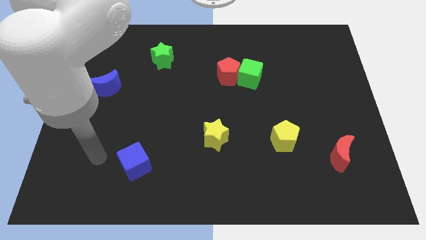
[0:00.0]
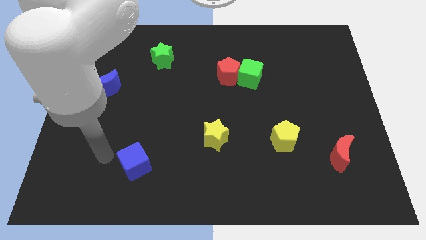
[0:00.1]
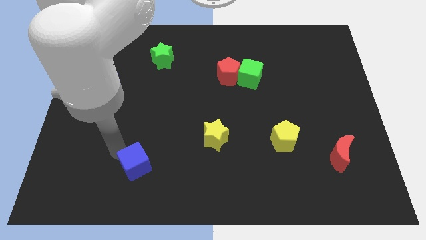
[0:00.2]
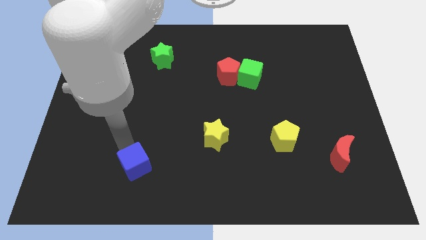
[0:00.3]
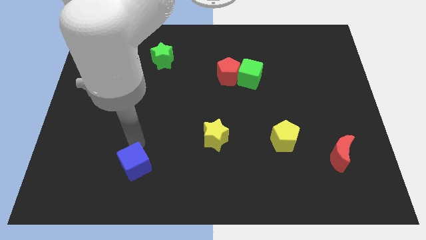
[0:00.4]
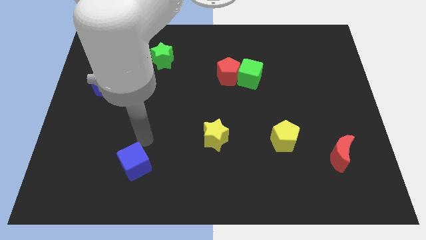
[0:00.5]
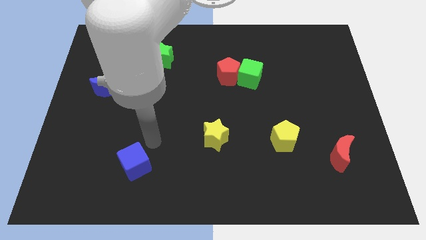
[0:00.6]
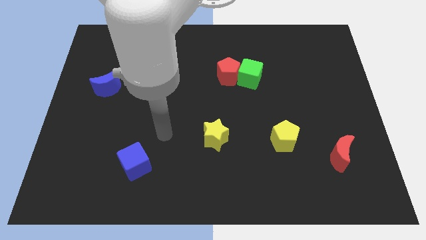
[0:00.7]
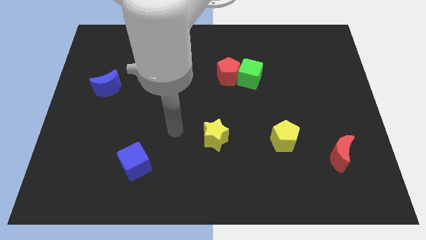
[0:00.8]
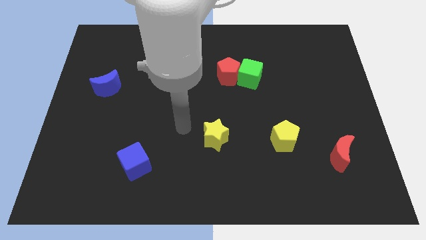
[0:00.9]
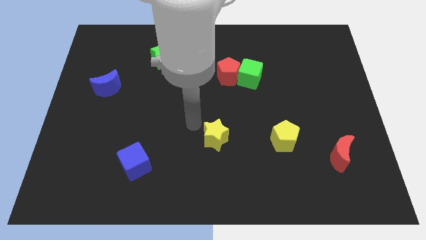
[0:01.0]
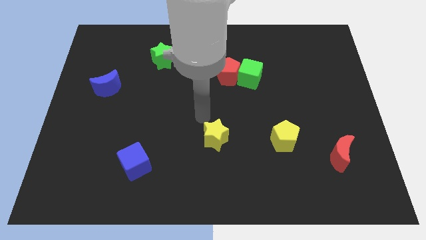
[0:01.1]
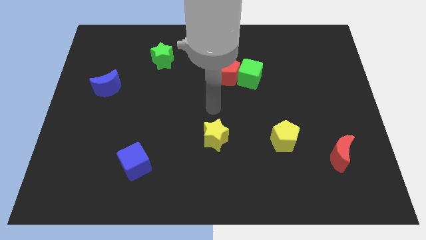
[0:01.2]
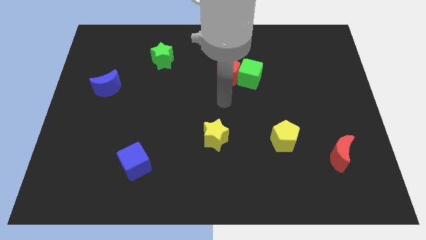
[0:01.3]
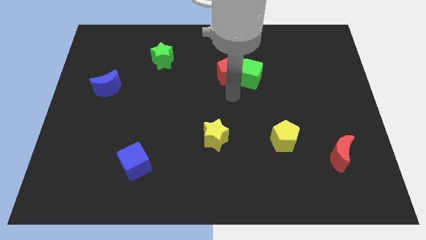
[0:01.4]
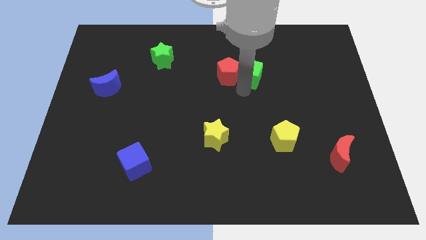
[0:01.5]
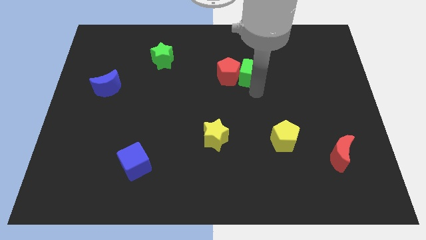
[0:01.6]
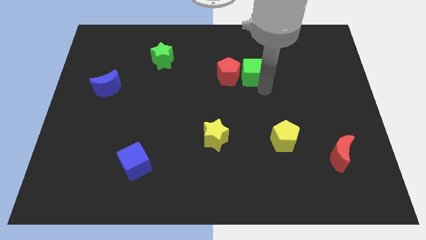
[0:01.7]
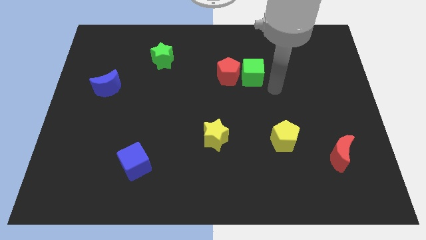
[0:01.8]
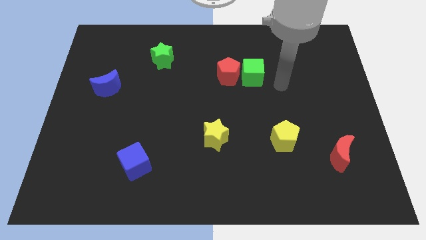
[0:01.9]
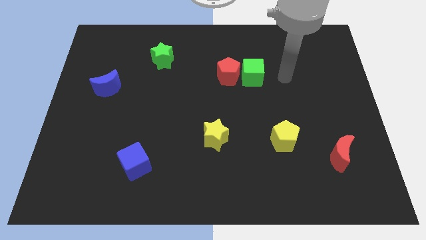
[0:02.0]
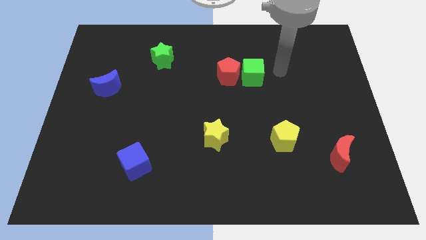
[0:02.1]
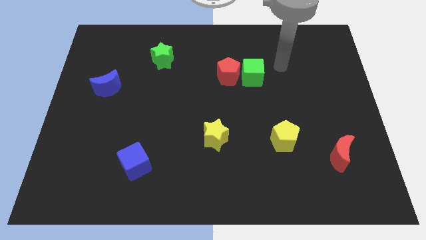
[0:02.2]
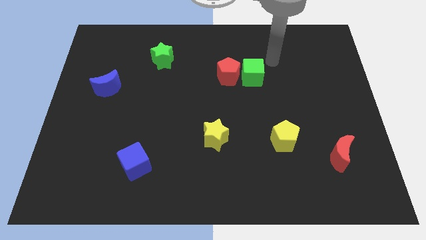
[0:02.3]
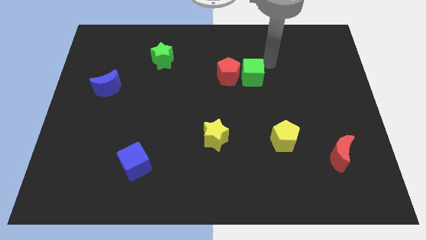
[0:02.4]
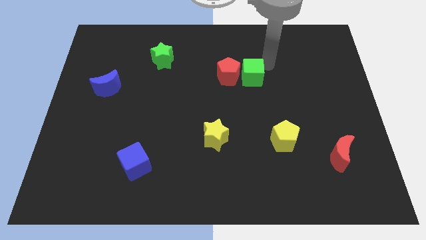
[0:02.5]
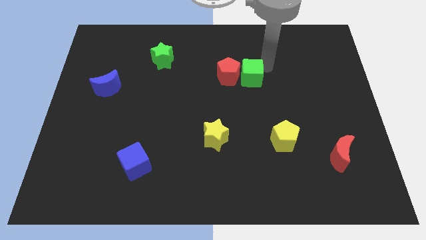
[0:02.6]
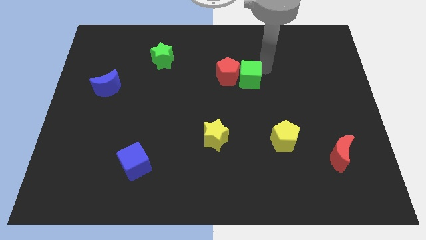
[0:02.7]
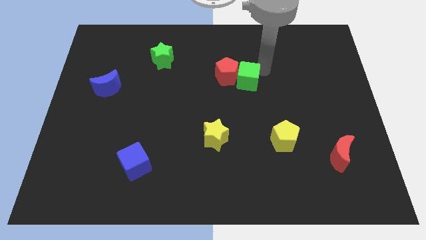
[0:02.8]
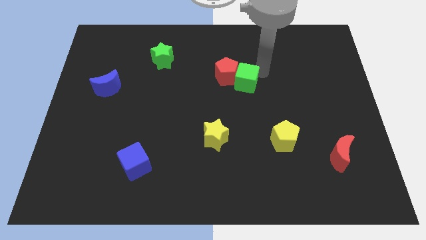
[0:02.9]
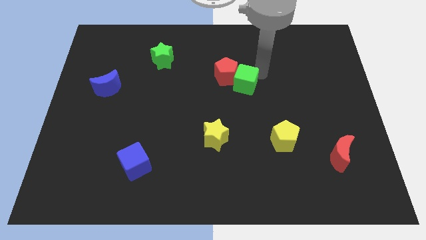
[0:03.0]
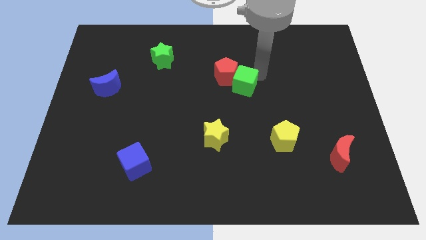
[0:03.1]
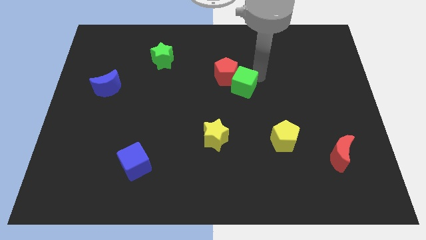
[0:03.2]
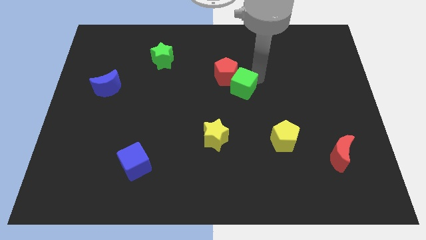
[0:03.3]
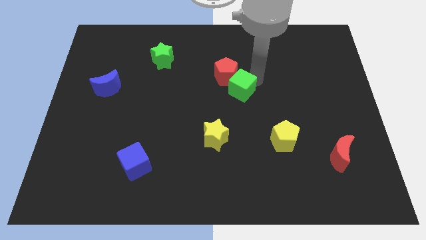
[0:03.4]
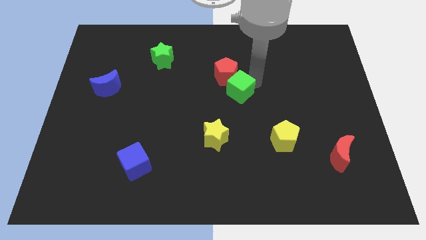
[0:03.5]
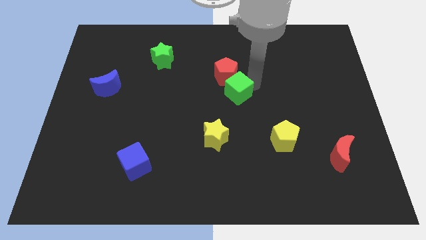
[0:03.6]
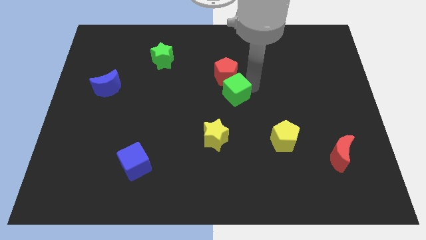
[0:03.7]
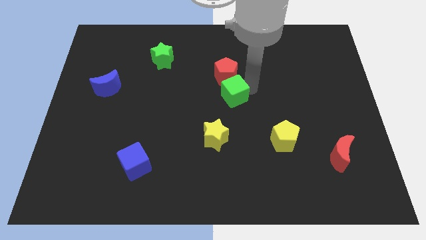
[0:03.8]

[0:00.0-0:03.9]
slightly slide the green cube downwards and then left

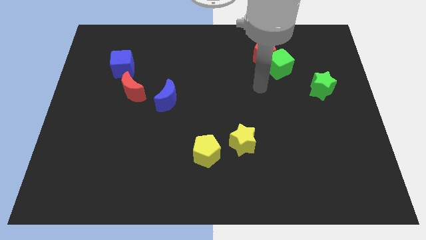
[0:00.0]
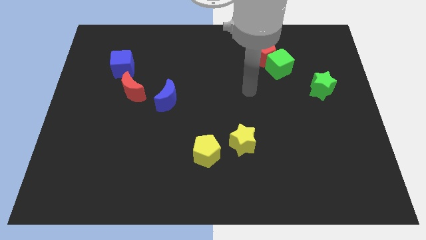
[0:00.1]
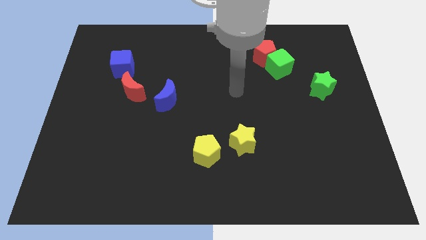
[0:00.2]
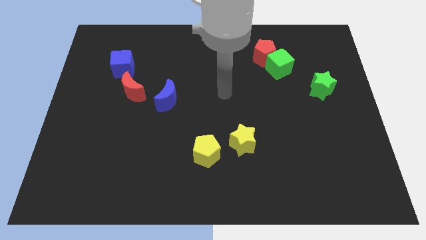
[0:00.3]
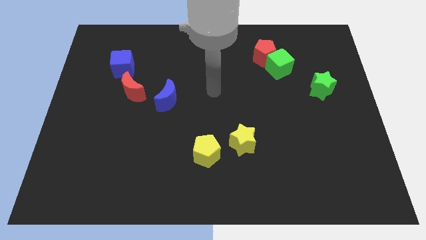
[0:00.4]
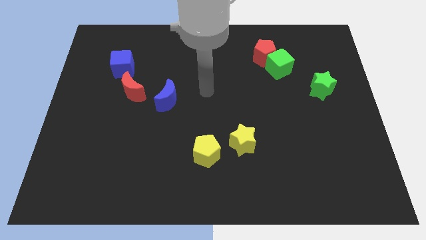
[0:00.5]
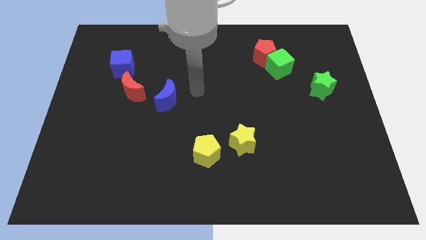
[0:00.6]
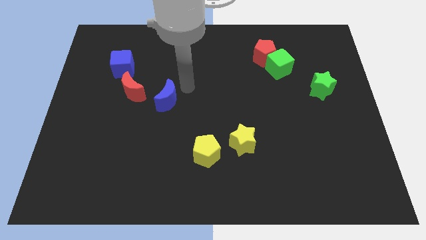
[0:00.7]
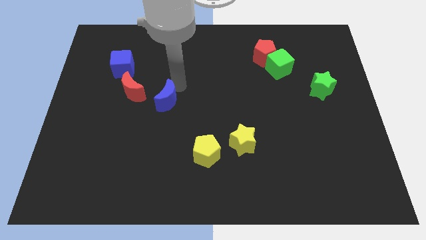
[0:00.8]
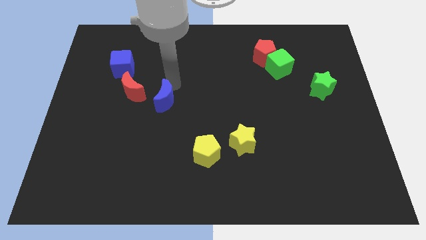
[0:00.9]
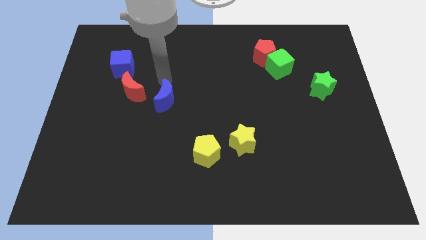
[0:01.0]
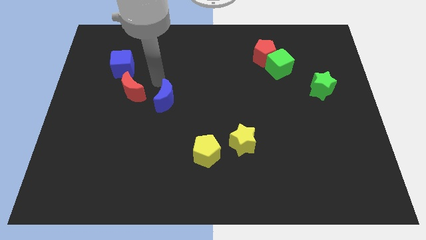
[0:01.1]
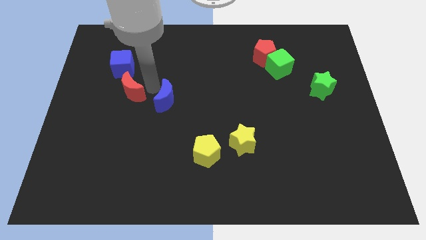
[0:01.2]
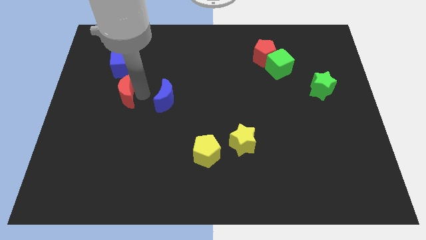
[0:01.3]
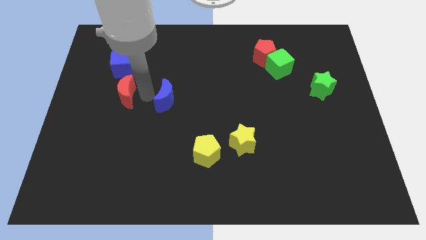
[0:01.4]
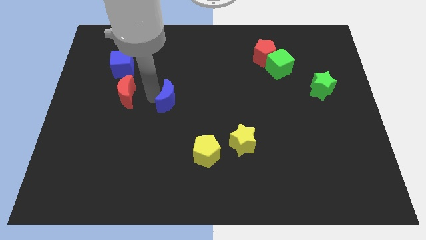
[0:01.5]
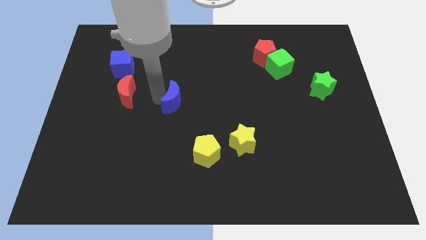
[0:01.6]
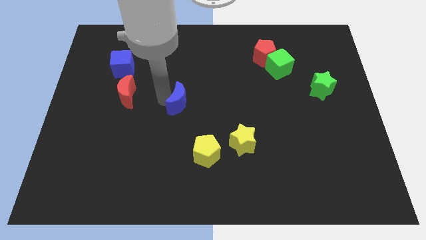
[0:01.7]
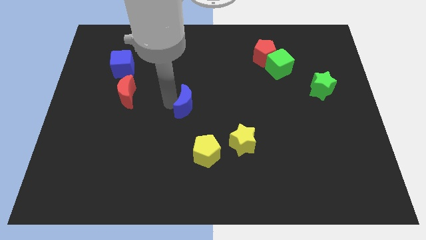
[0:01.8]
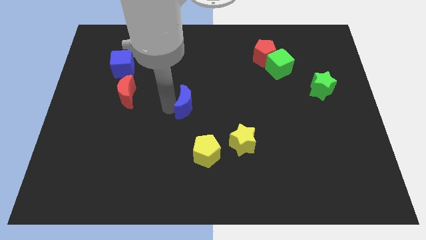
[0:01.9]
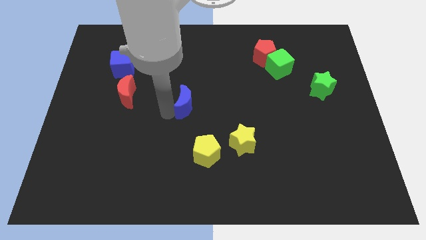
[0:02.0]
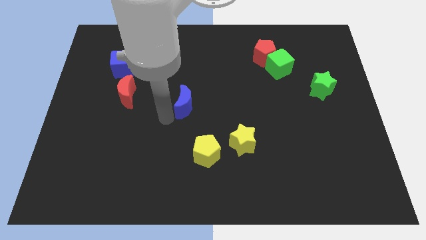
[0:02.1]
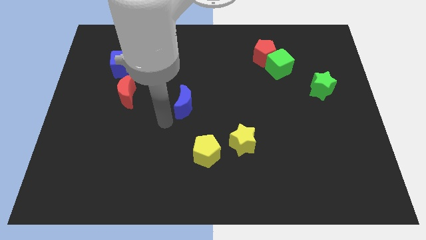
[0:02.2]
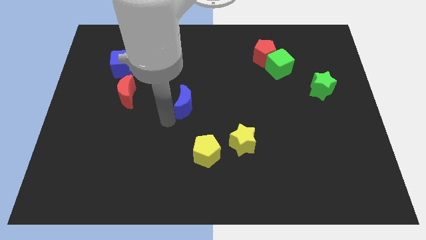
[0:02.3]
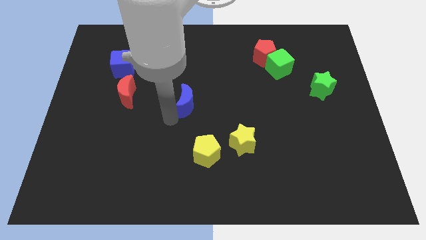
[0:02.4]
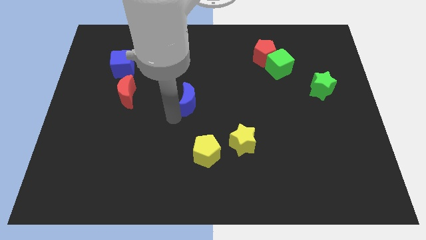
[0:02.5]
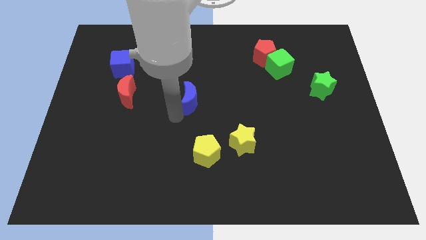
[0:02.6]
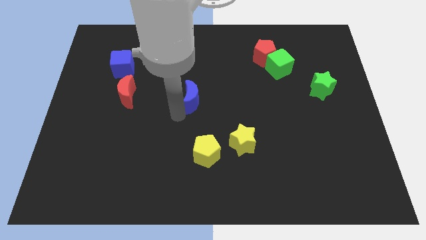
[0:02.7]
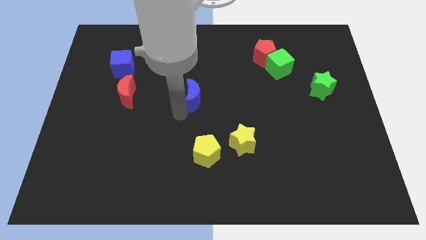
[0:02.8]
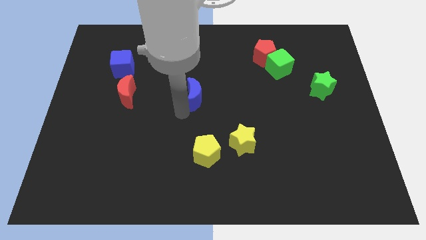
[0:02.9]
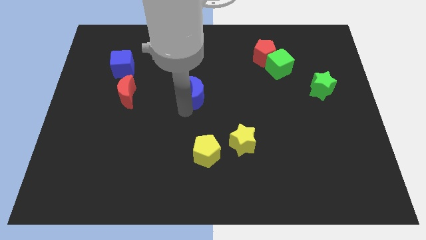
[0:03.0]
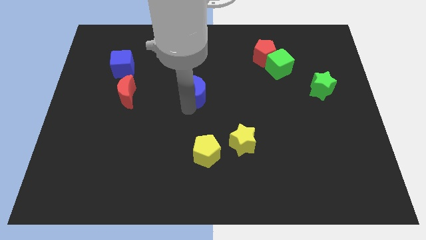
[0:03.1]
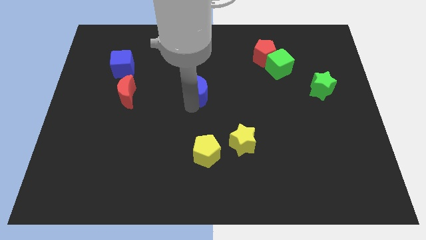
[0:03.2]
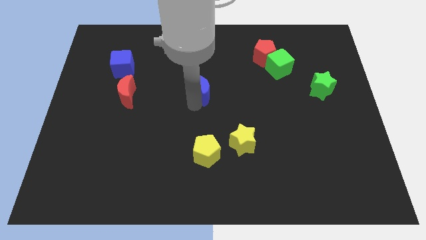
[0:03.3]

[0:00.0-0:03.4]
push the blue moon upwards and right slightly

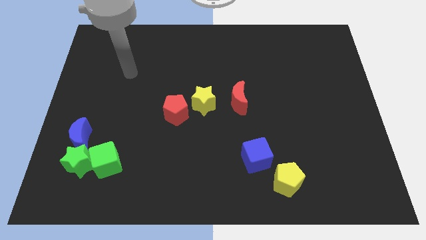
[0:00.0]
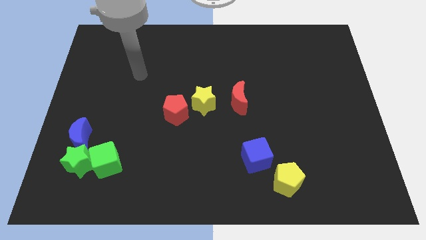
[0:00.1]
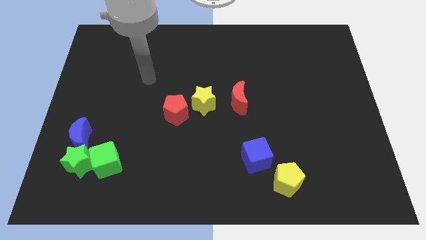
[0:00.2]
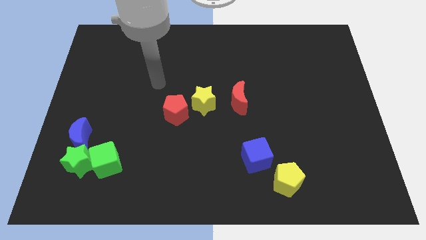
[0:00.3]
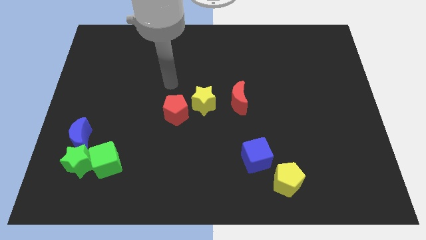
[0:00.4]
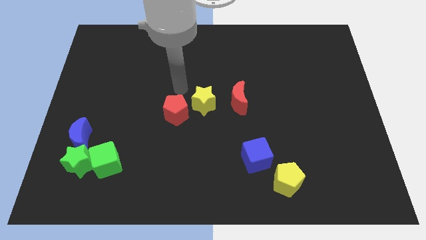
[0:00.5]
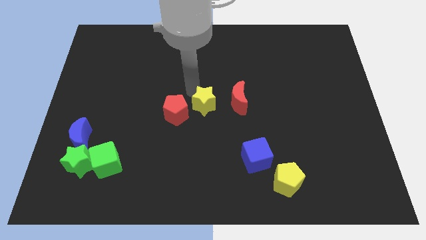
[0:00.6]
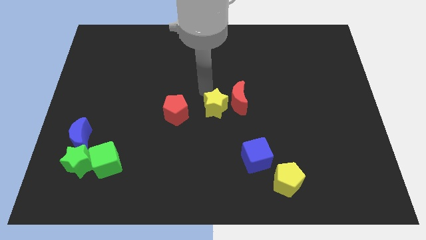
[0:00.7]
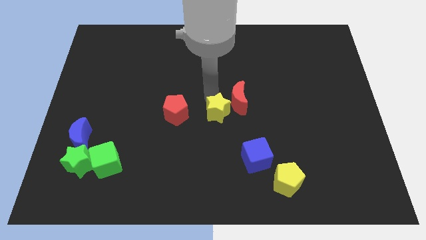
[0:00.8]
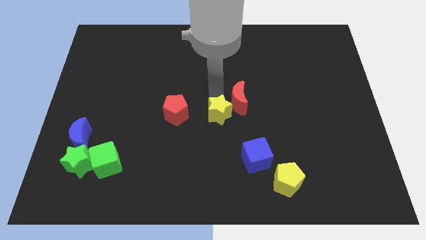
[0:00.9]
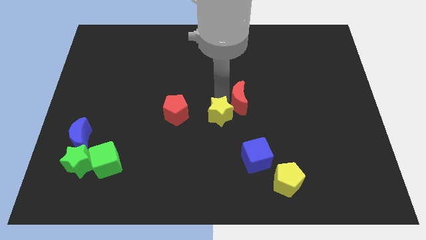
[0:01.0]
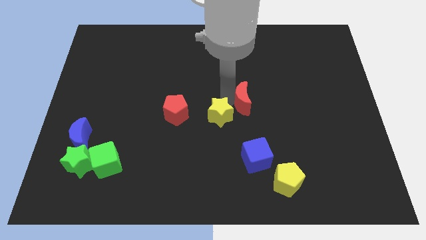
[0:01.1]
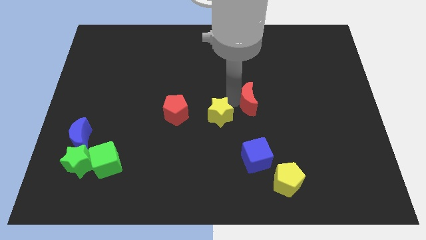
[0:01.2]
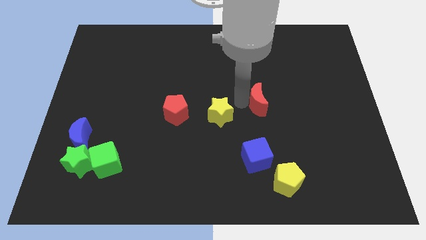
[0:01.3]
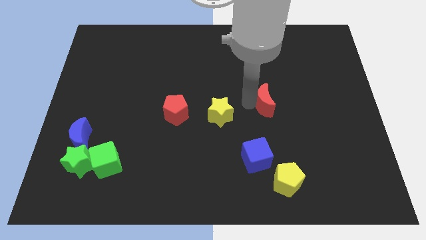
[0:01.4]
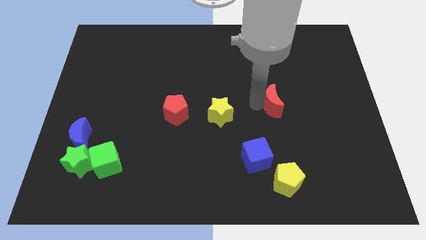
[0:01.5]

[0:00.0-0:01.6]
push the red moon somewhat to the right
